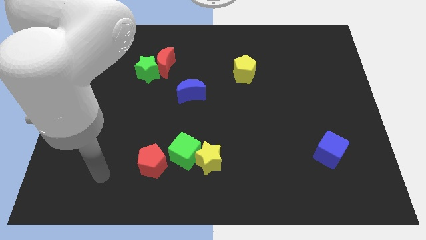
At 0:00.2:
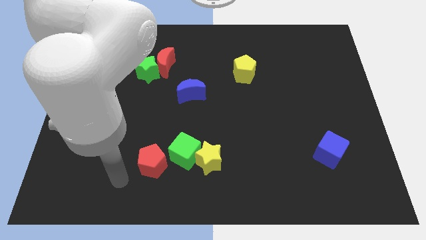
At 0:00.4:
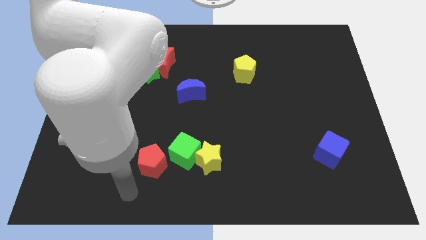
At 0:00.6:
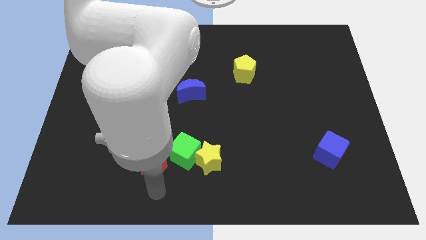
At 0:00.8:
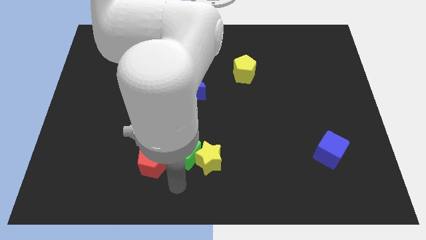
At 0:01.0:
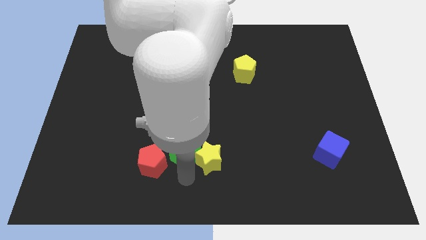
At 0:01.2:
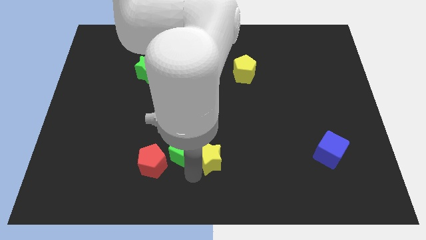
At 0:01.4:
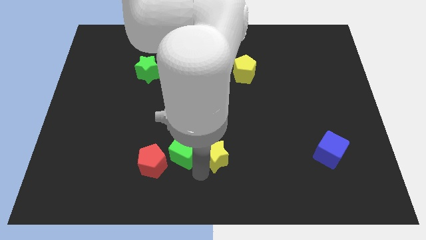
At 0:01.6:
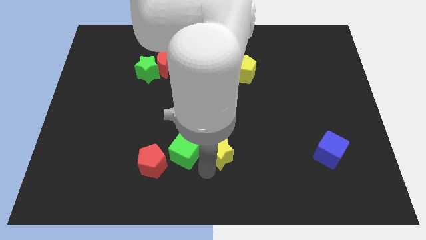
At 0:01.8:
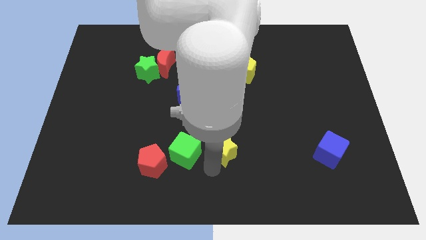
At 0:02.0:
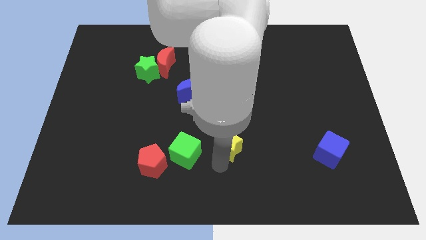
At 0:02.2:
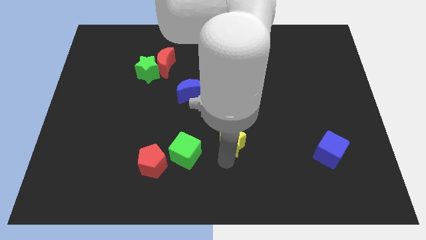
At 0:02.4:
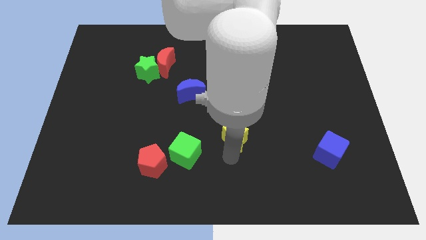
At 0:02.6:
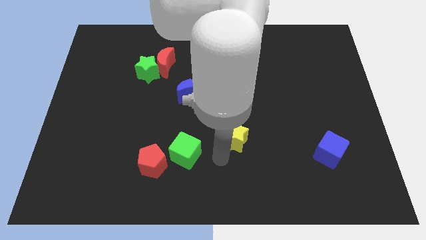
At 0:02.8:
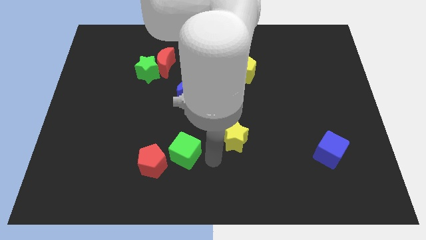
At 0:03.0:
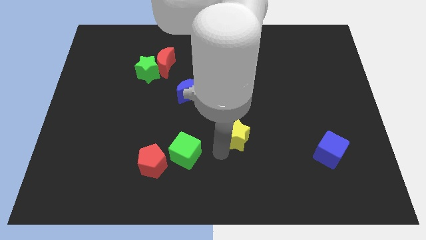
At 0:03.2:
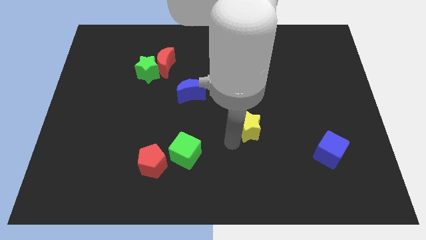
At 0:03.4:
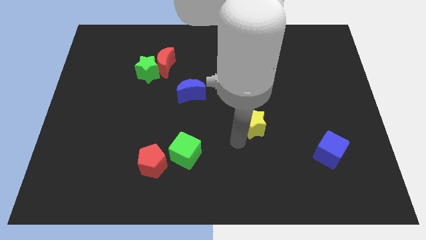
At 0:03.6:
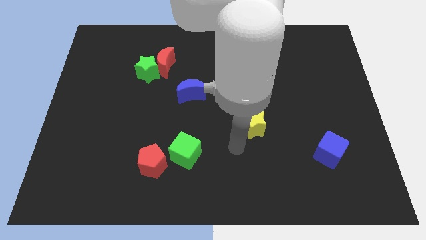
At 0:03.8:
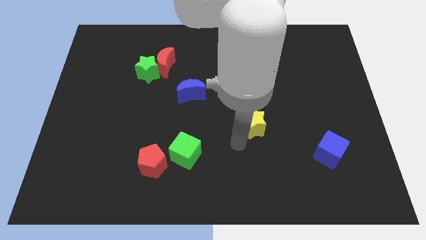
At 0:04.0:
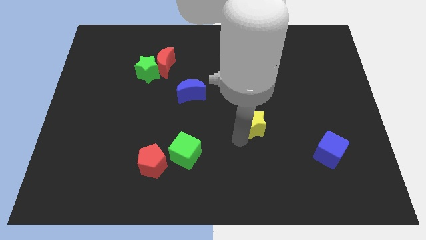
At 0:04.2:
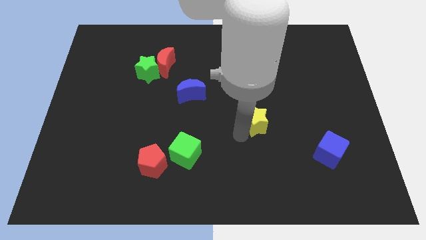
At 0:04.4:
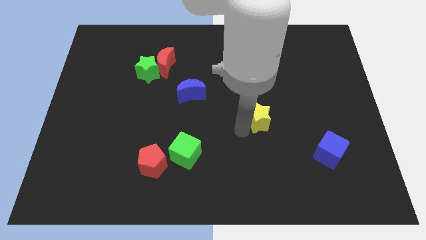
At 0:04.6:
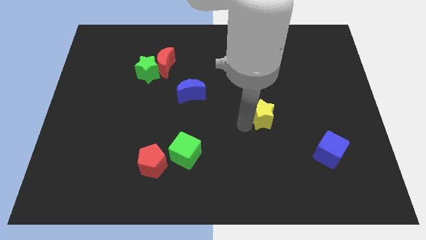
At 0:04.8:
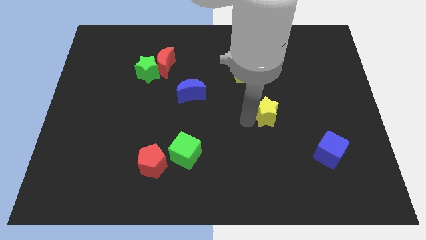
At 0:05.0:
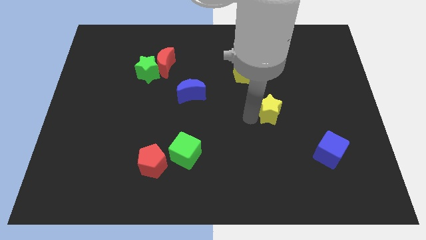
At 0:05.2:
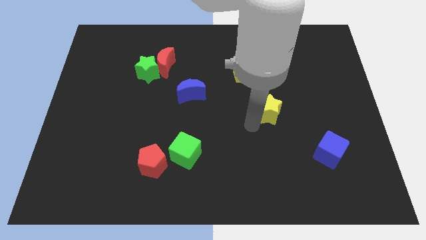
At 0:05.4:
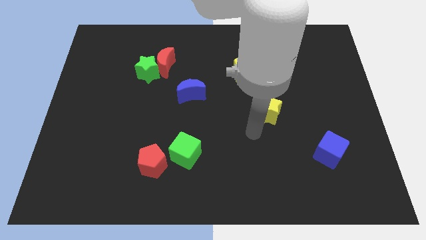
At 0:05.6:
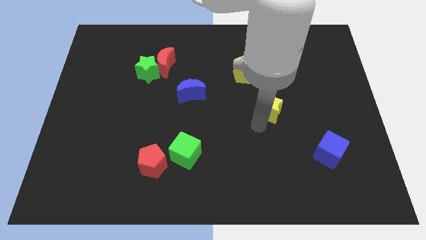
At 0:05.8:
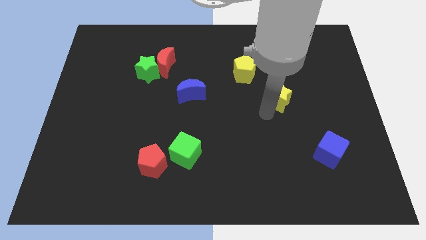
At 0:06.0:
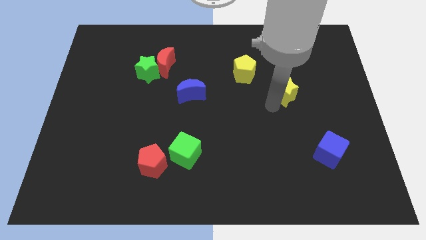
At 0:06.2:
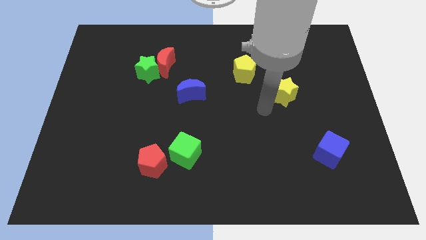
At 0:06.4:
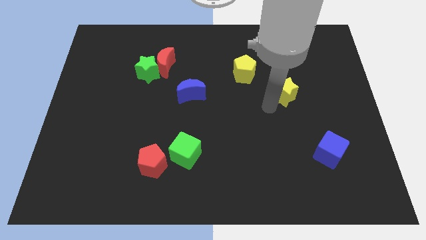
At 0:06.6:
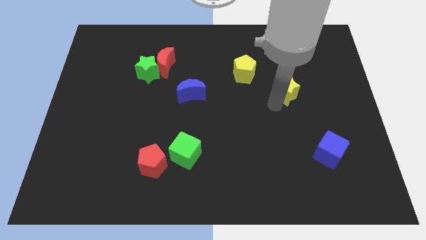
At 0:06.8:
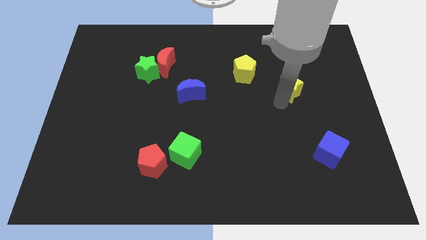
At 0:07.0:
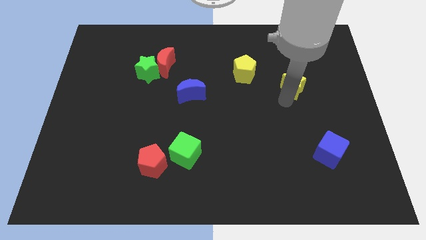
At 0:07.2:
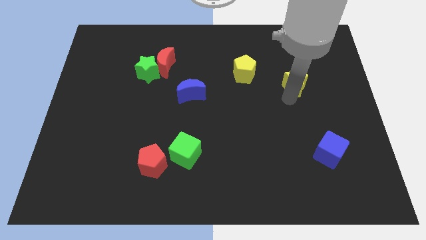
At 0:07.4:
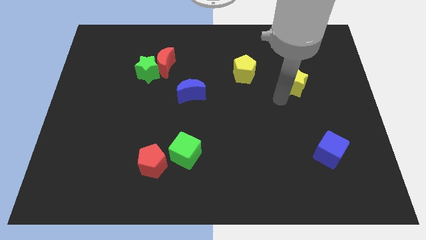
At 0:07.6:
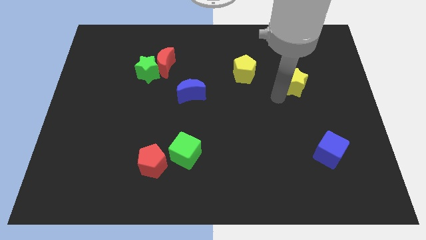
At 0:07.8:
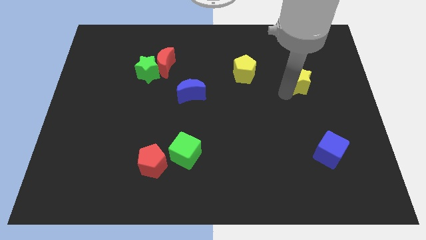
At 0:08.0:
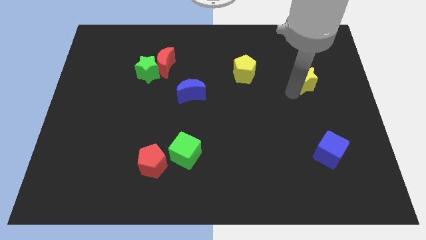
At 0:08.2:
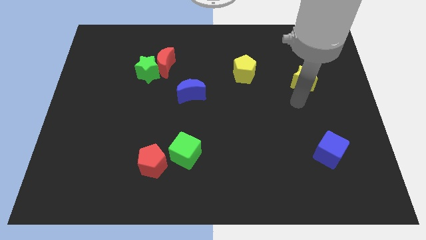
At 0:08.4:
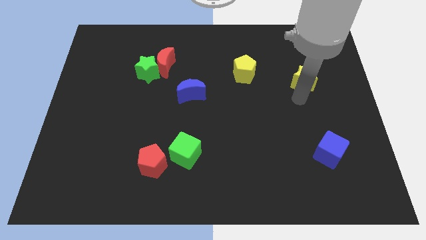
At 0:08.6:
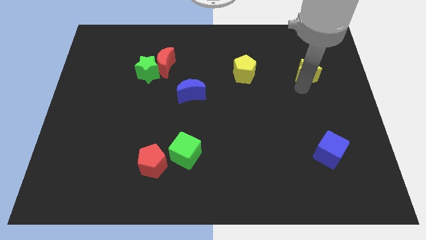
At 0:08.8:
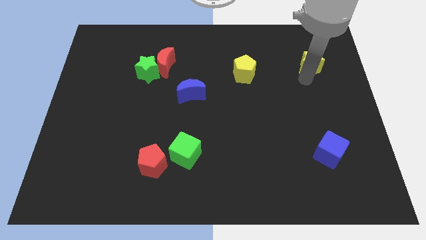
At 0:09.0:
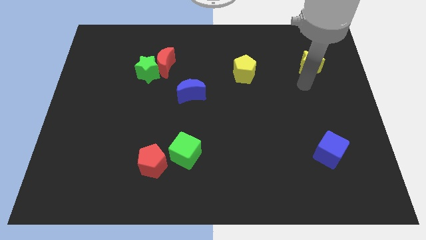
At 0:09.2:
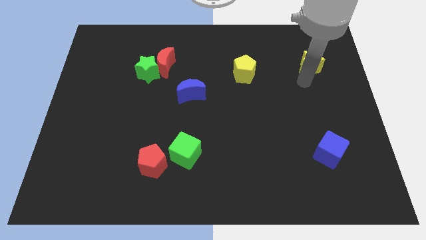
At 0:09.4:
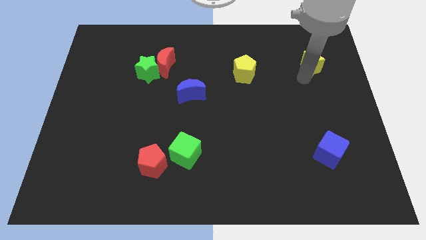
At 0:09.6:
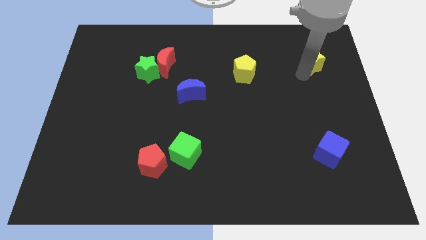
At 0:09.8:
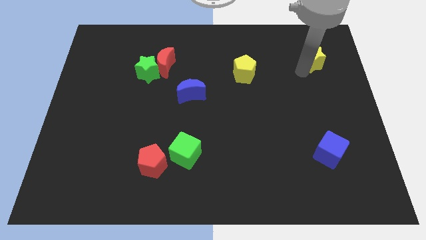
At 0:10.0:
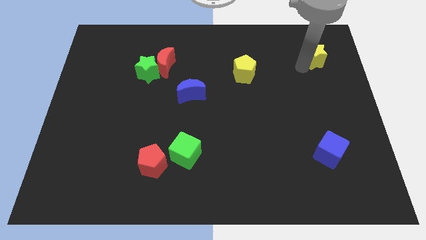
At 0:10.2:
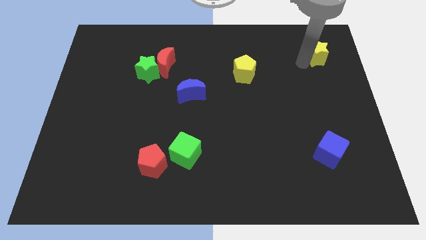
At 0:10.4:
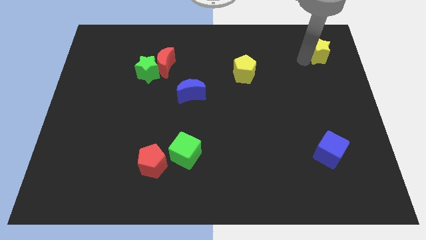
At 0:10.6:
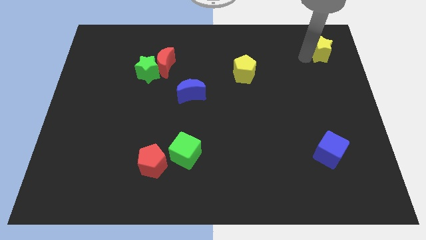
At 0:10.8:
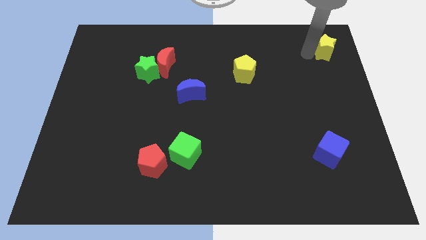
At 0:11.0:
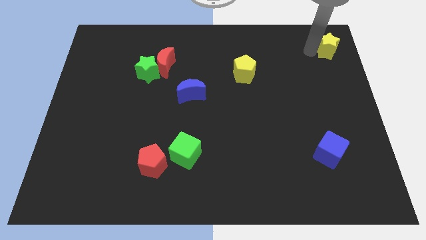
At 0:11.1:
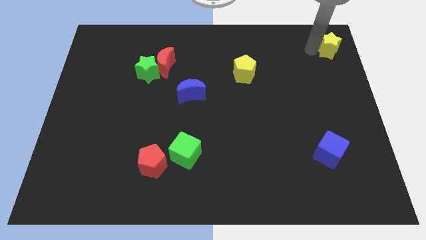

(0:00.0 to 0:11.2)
slide the yellow star to the top right

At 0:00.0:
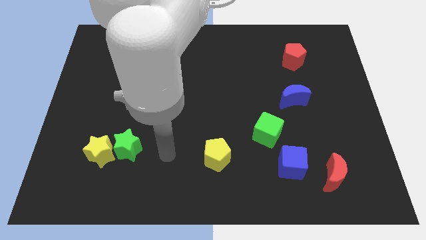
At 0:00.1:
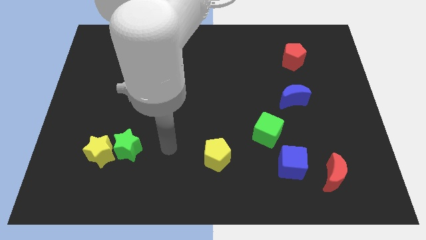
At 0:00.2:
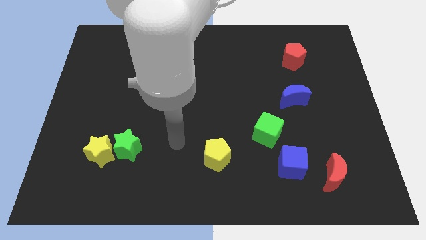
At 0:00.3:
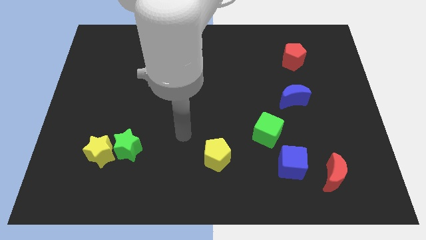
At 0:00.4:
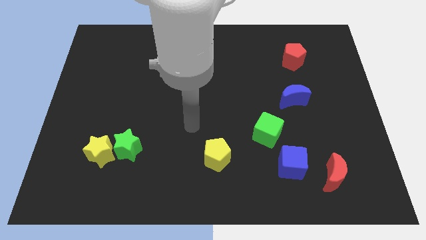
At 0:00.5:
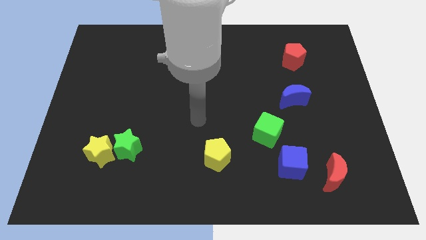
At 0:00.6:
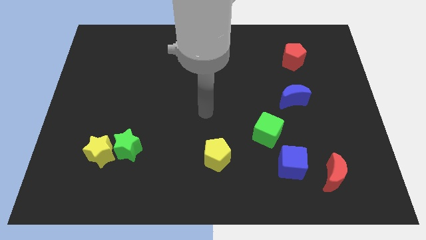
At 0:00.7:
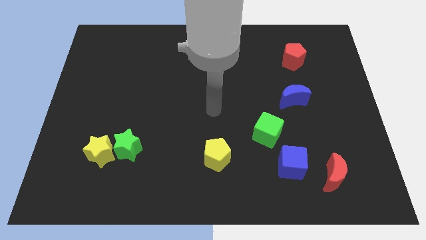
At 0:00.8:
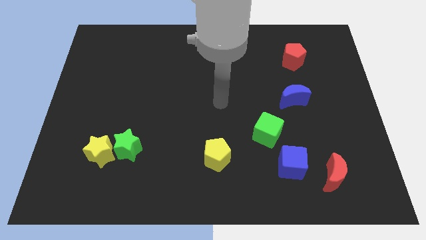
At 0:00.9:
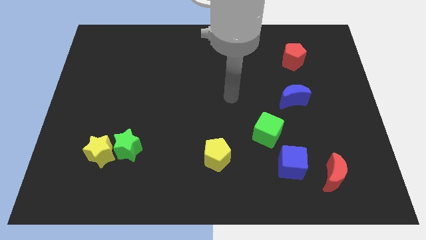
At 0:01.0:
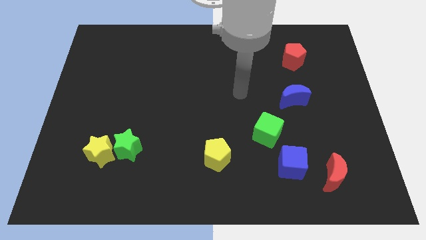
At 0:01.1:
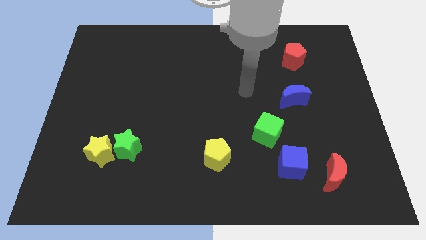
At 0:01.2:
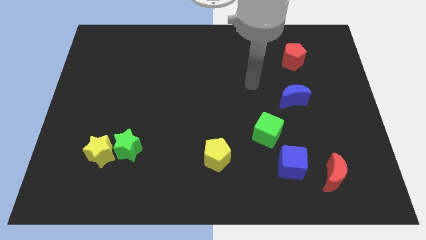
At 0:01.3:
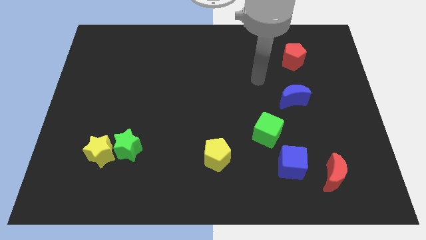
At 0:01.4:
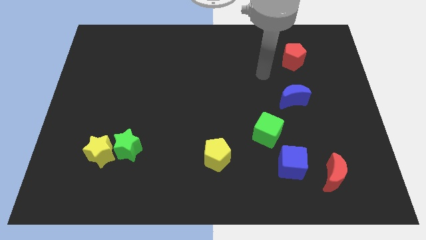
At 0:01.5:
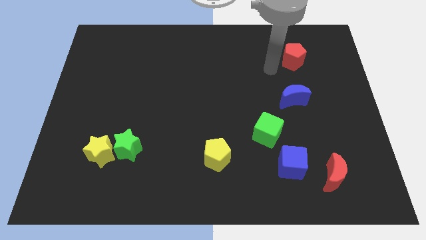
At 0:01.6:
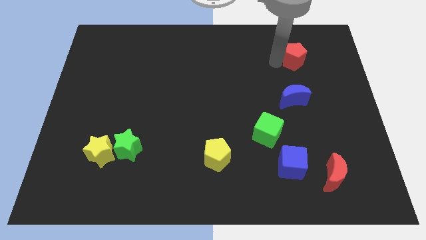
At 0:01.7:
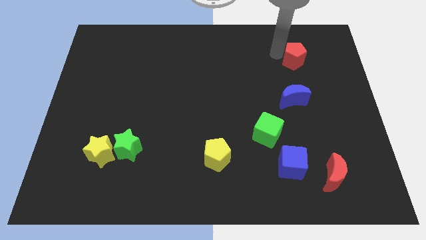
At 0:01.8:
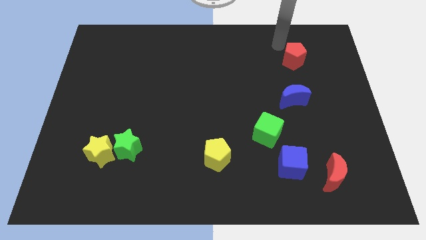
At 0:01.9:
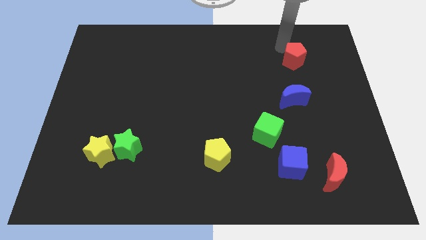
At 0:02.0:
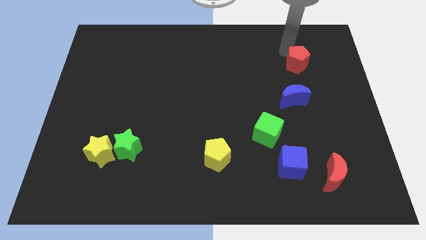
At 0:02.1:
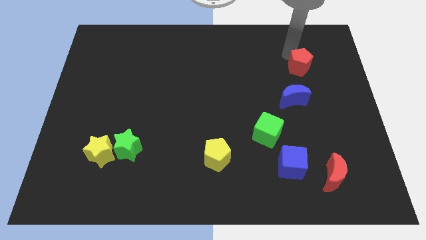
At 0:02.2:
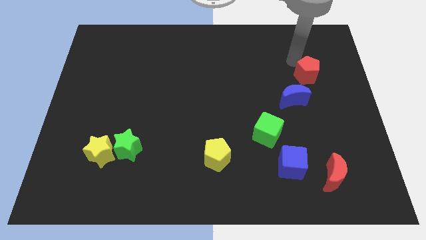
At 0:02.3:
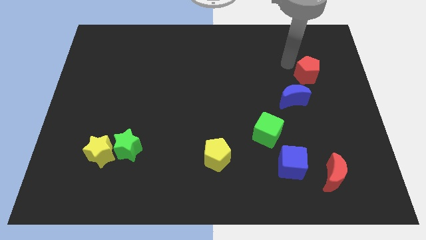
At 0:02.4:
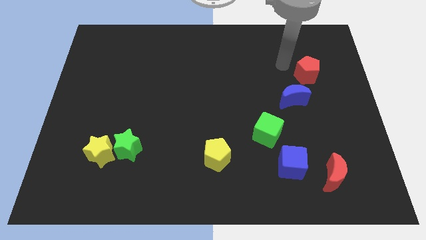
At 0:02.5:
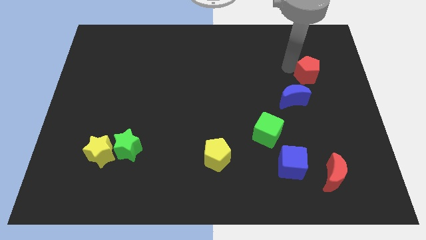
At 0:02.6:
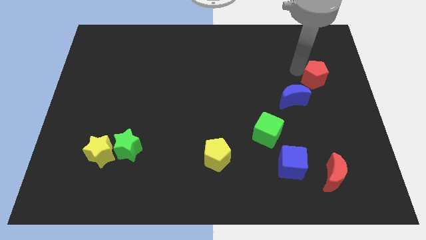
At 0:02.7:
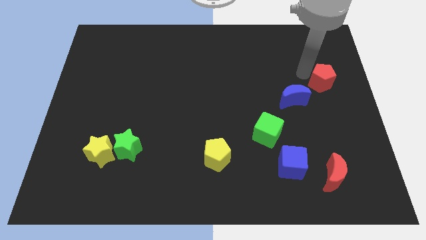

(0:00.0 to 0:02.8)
put the red pentagon to the center right
